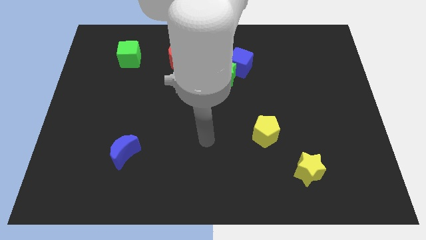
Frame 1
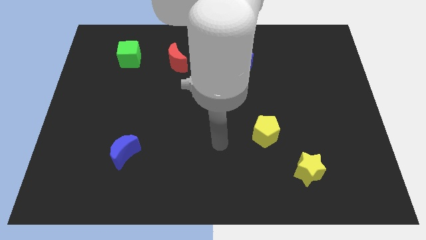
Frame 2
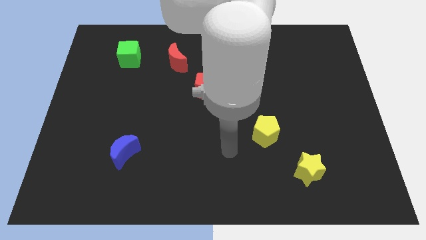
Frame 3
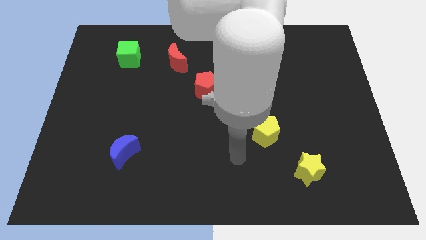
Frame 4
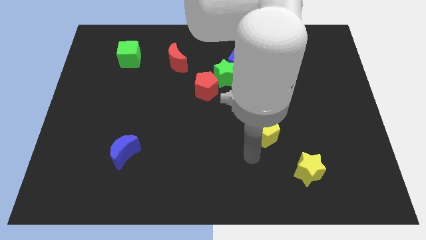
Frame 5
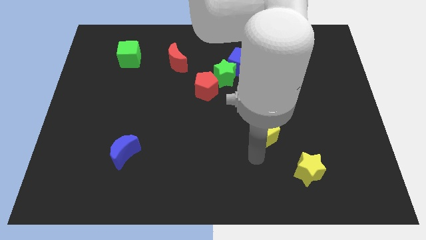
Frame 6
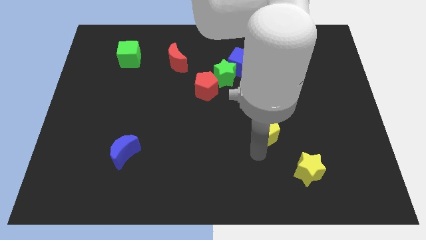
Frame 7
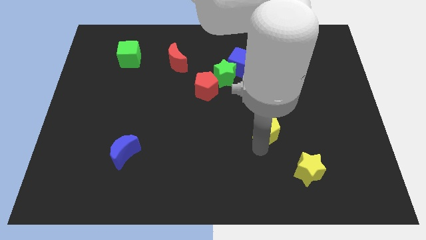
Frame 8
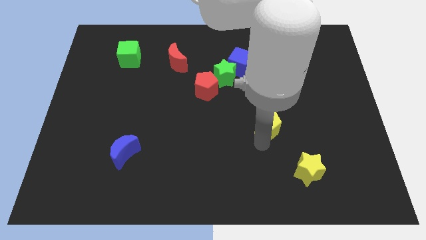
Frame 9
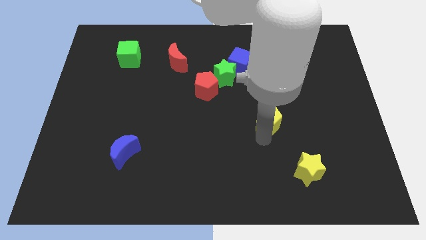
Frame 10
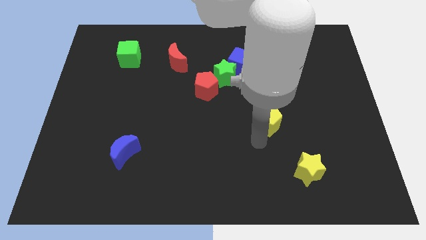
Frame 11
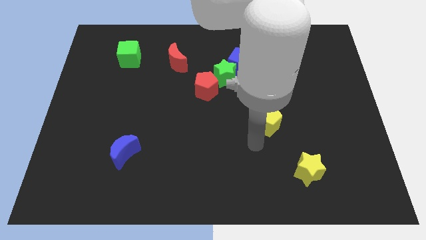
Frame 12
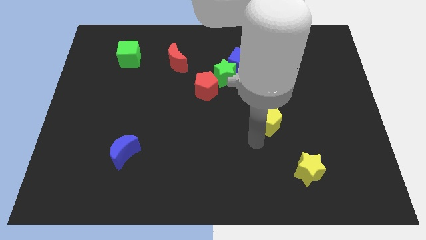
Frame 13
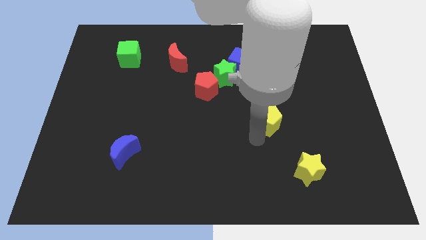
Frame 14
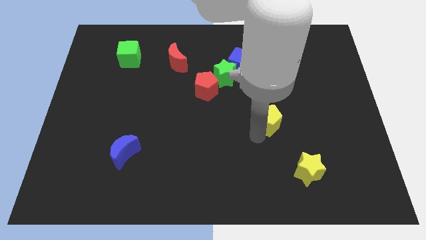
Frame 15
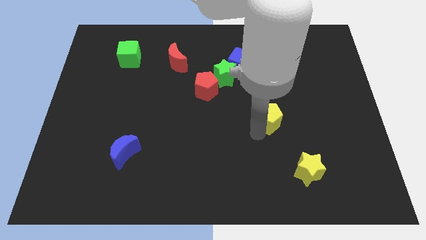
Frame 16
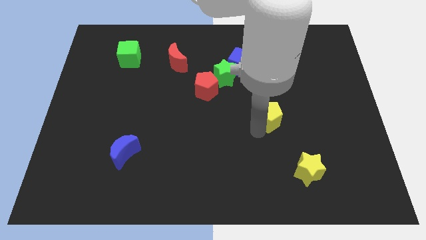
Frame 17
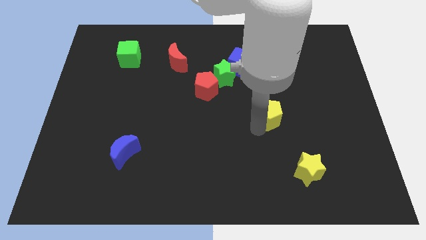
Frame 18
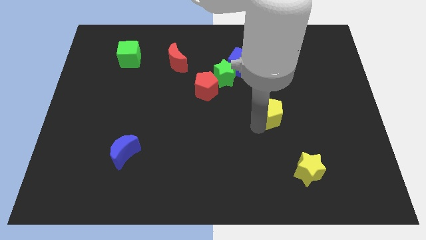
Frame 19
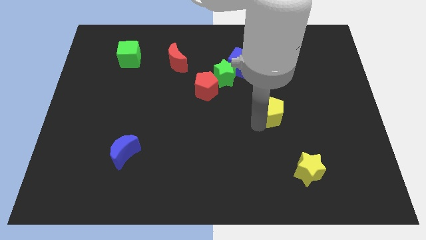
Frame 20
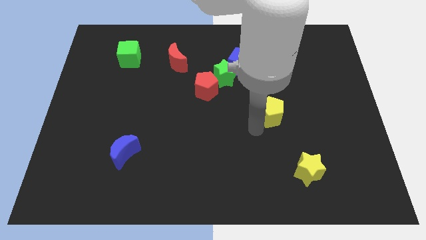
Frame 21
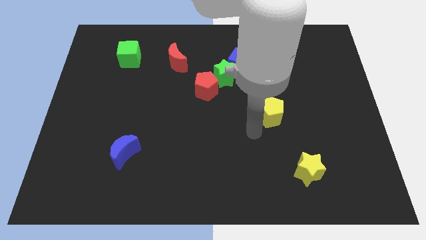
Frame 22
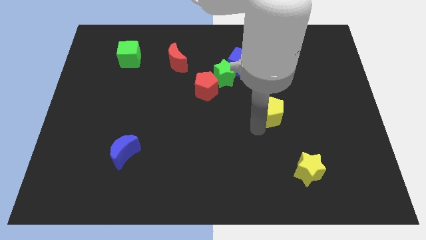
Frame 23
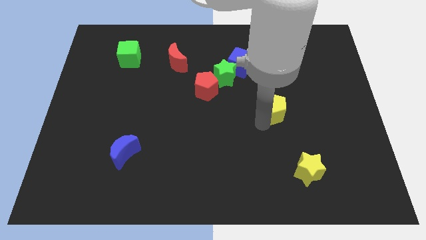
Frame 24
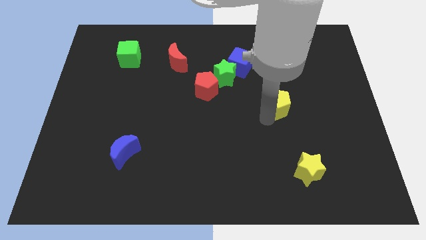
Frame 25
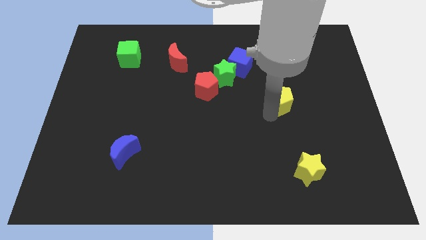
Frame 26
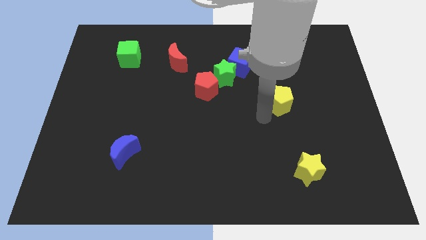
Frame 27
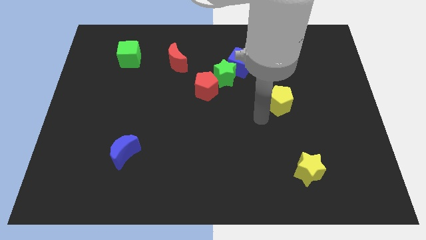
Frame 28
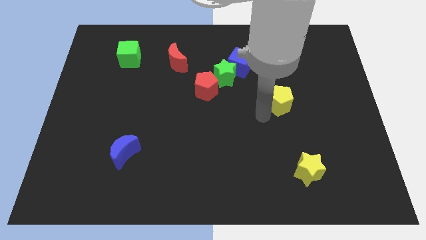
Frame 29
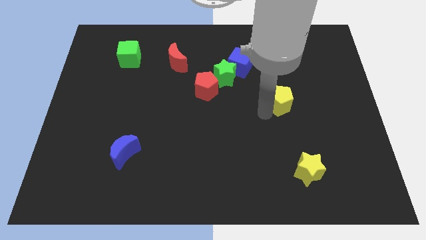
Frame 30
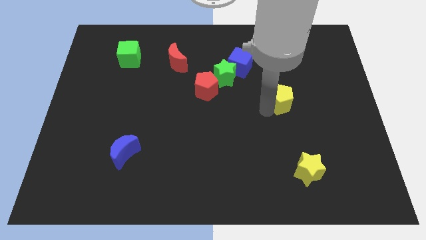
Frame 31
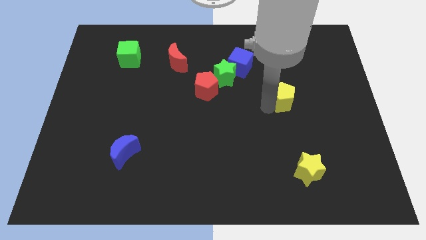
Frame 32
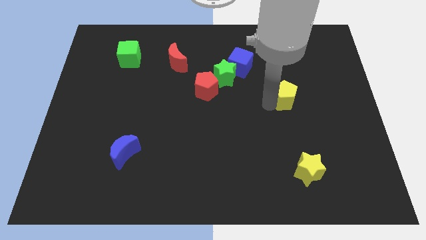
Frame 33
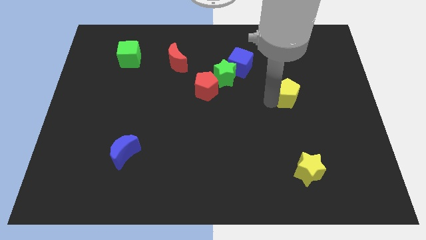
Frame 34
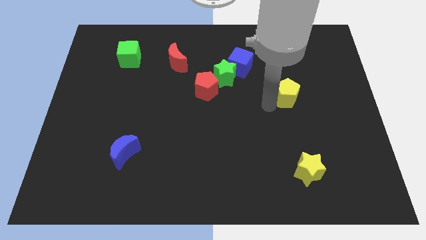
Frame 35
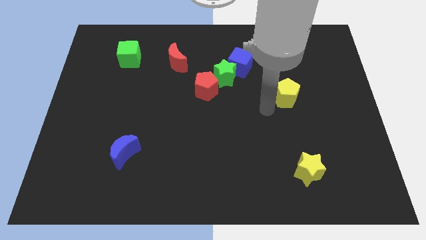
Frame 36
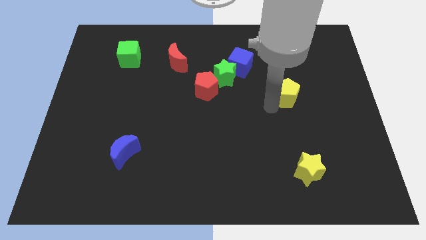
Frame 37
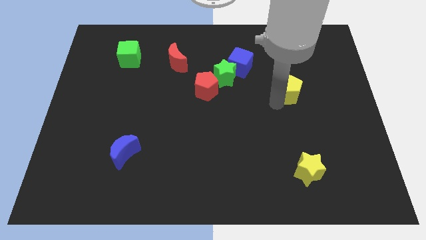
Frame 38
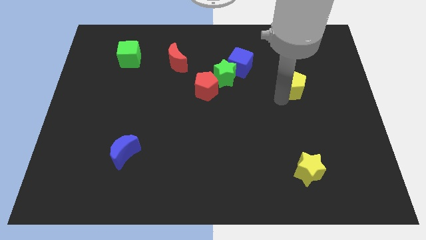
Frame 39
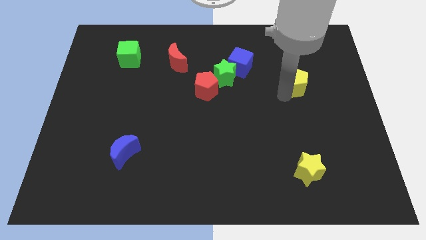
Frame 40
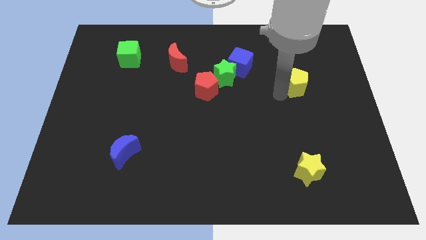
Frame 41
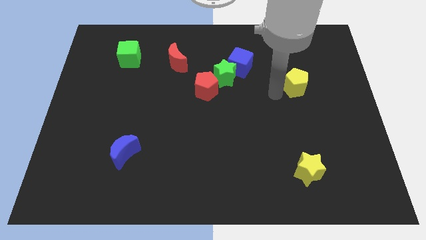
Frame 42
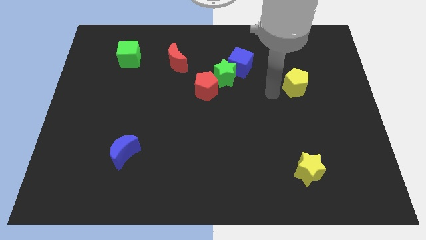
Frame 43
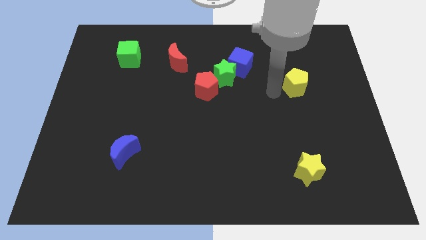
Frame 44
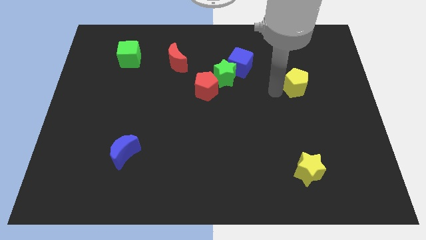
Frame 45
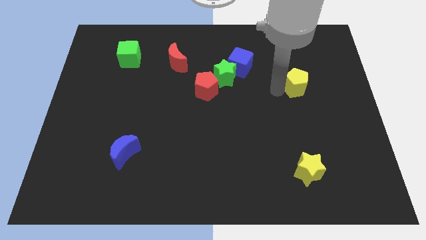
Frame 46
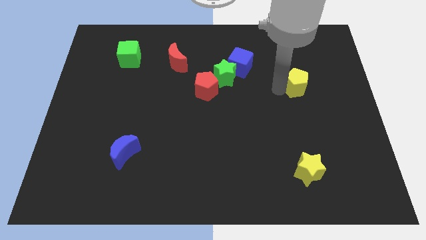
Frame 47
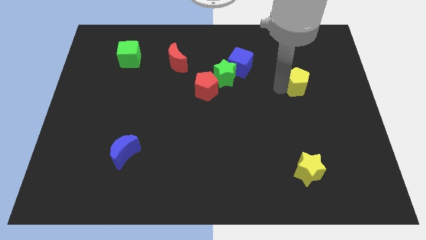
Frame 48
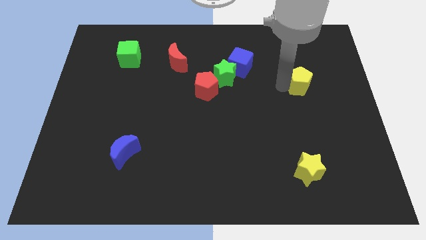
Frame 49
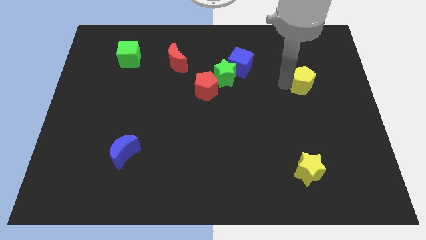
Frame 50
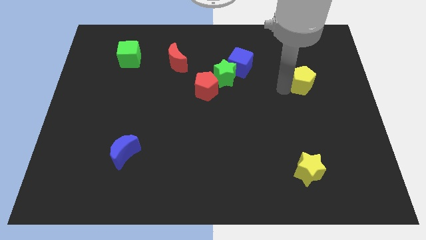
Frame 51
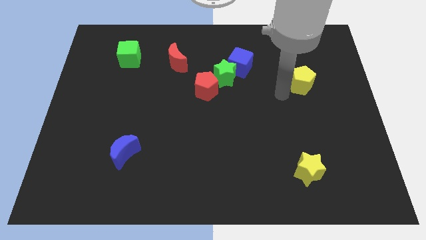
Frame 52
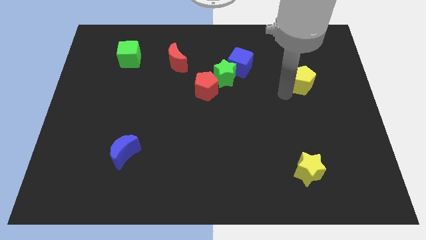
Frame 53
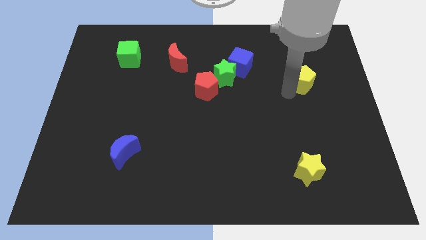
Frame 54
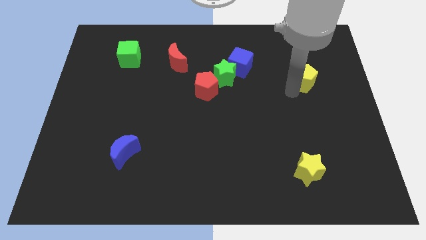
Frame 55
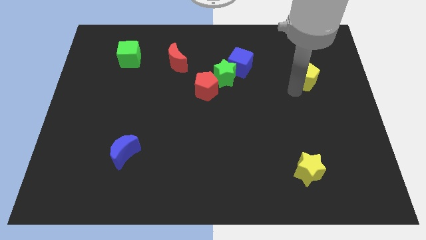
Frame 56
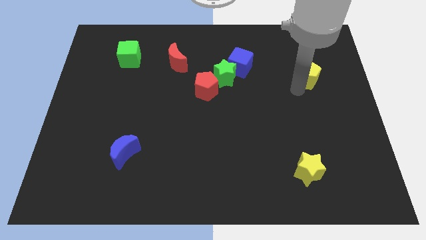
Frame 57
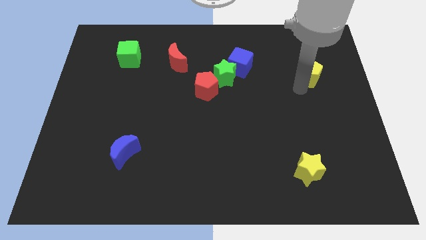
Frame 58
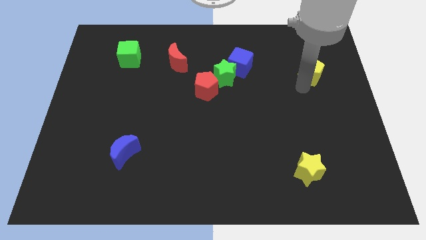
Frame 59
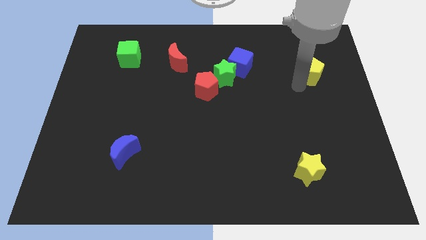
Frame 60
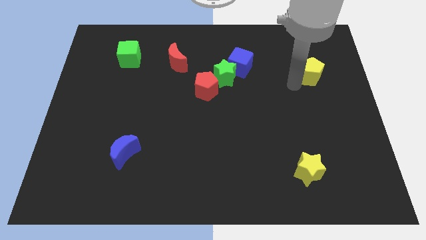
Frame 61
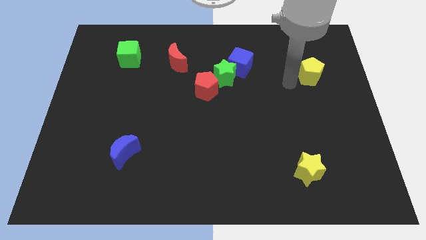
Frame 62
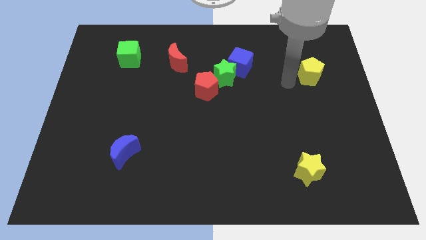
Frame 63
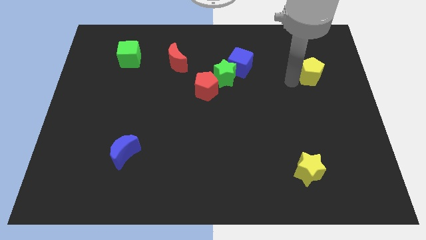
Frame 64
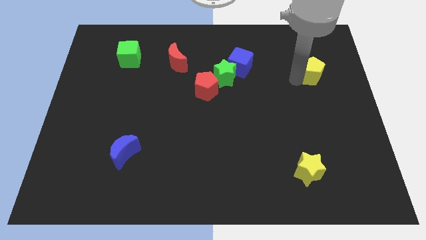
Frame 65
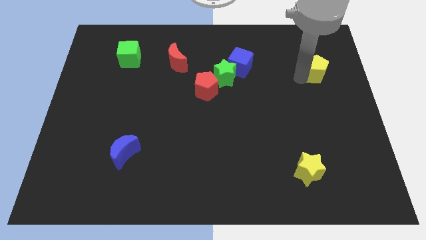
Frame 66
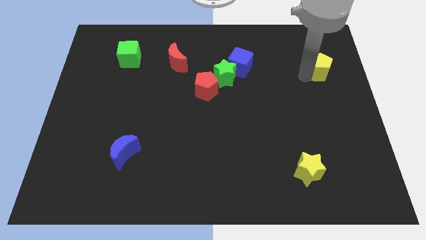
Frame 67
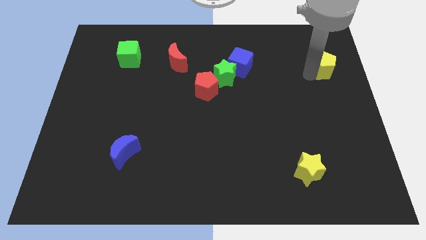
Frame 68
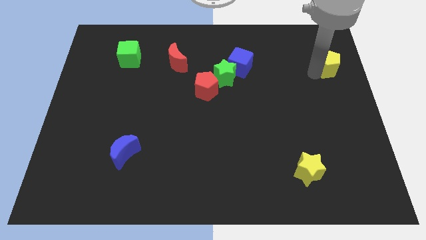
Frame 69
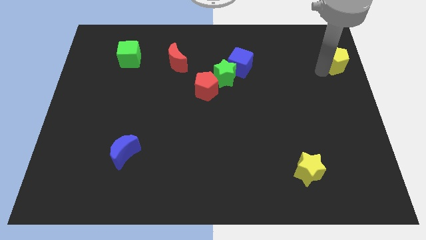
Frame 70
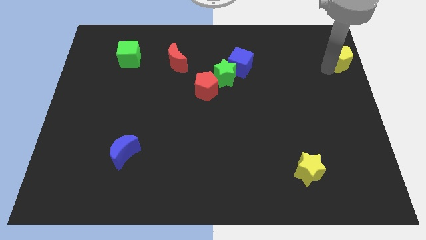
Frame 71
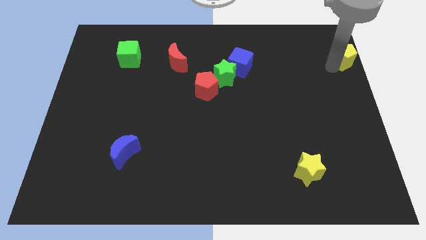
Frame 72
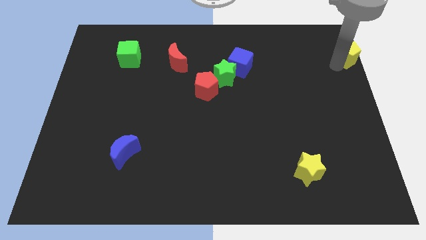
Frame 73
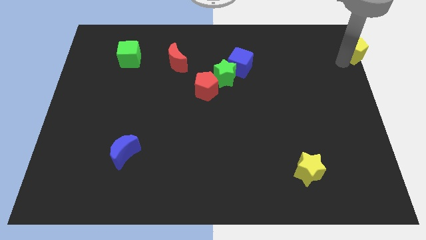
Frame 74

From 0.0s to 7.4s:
push the yellow pentagon to the top right
